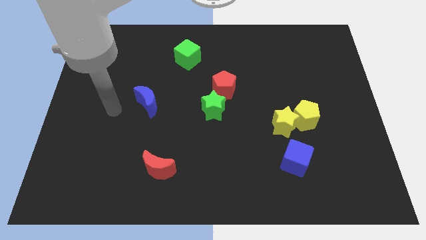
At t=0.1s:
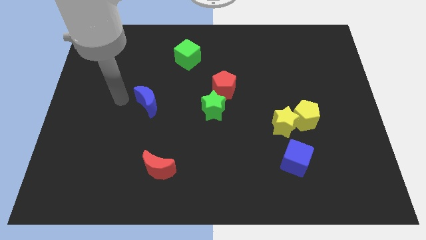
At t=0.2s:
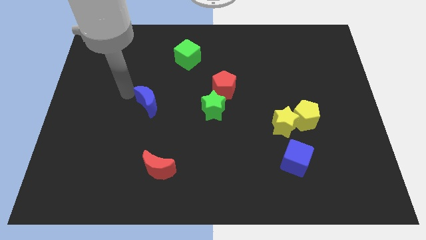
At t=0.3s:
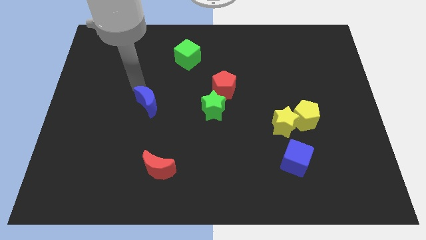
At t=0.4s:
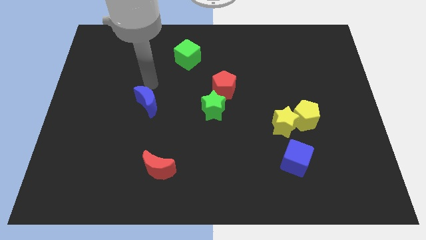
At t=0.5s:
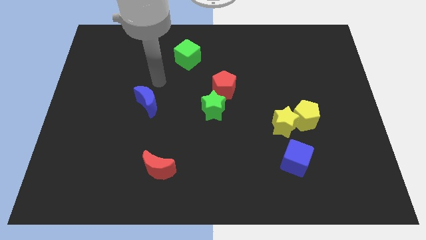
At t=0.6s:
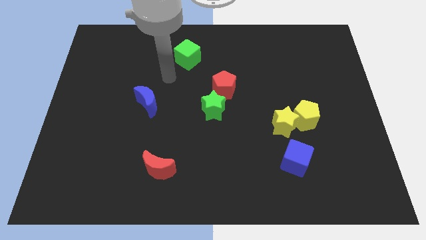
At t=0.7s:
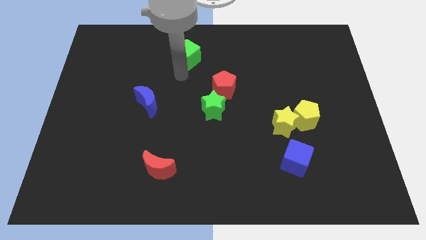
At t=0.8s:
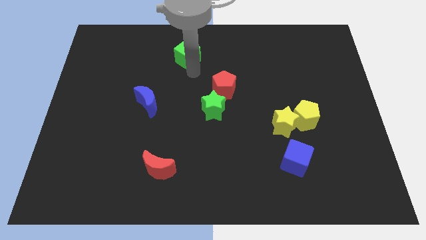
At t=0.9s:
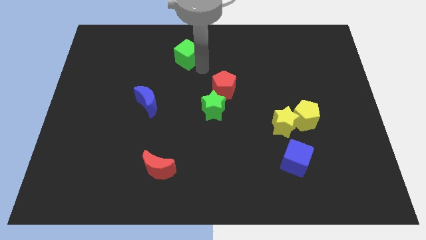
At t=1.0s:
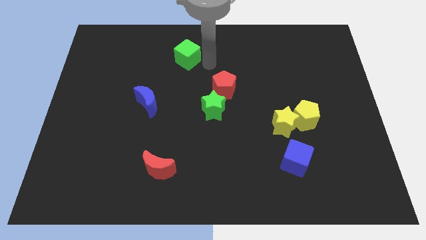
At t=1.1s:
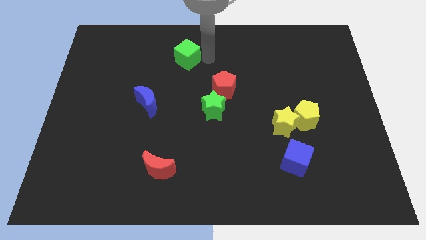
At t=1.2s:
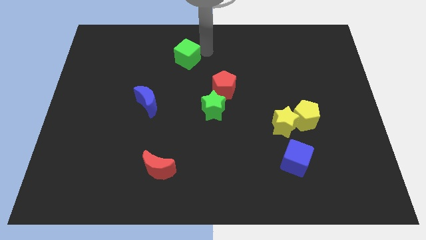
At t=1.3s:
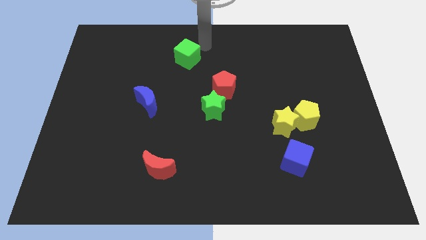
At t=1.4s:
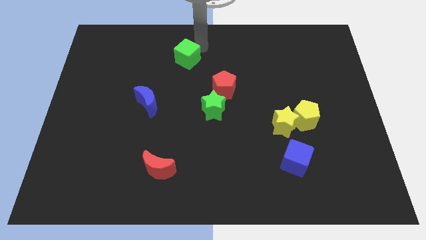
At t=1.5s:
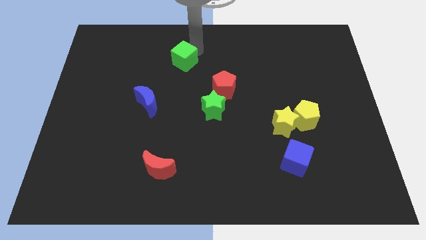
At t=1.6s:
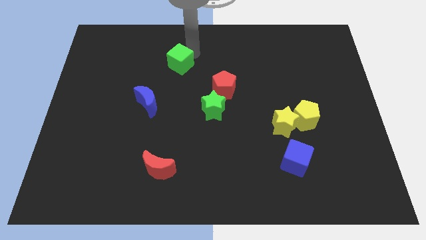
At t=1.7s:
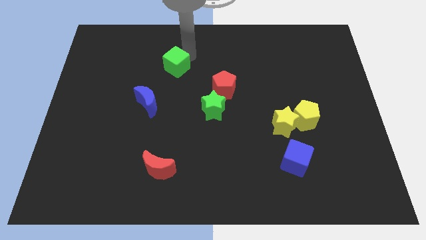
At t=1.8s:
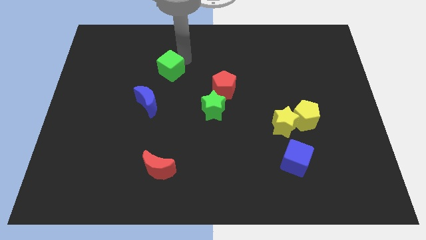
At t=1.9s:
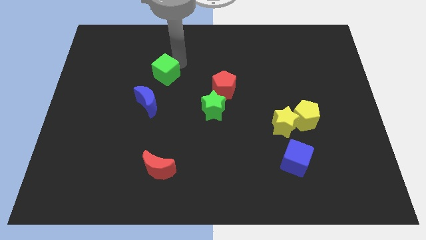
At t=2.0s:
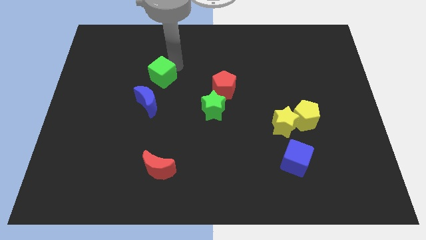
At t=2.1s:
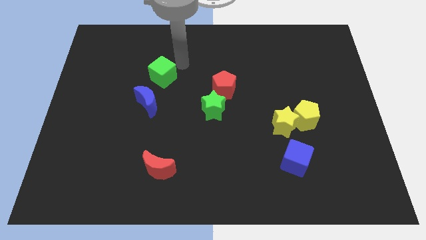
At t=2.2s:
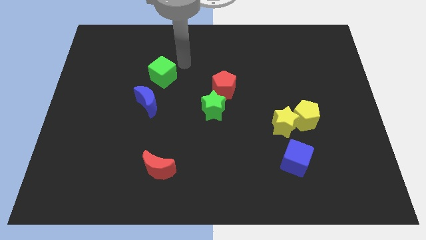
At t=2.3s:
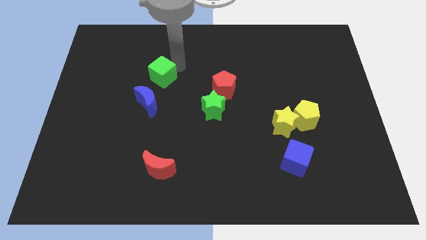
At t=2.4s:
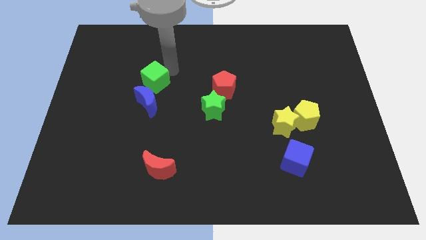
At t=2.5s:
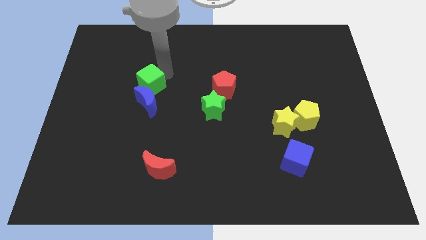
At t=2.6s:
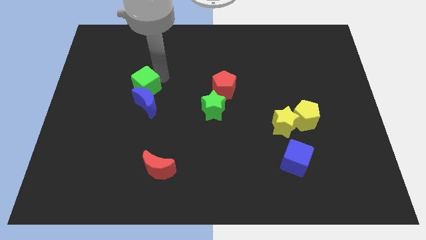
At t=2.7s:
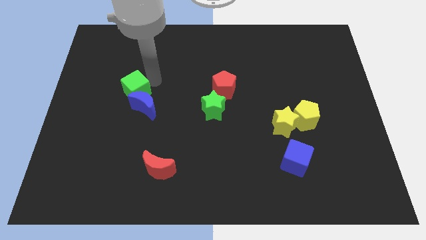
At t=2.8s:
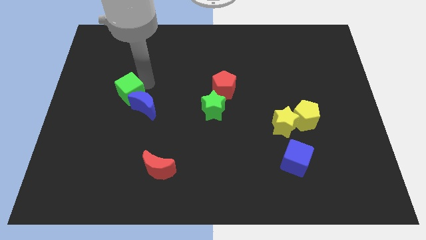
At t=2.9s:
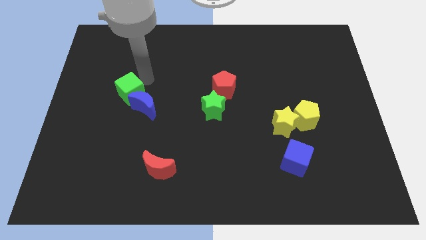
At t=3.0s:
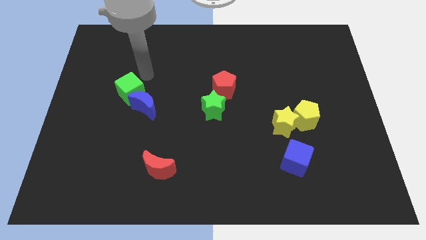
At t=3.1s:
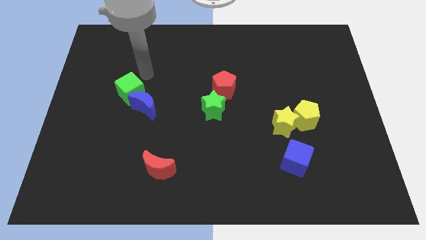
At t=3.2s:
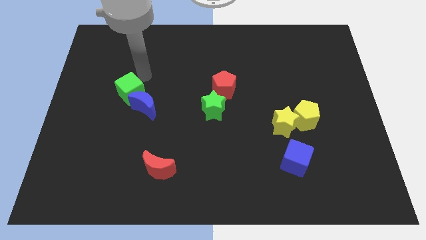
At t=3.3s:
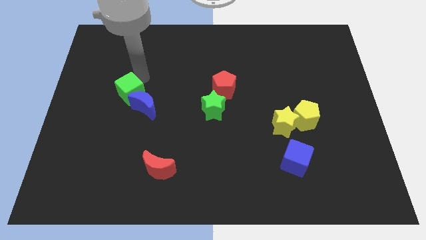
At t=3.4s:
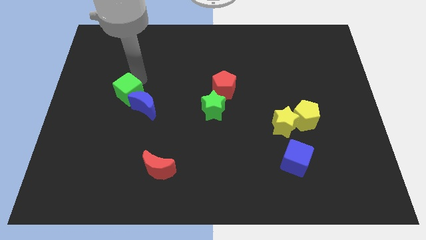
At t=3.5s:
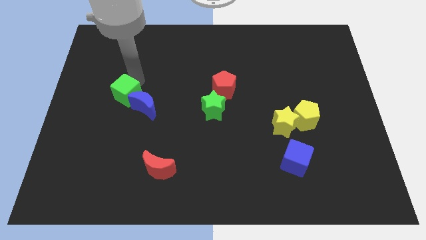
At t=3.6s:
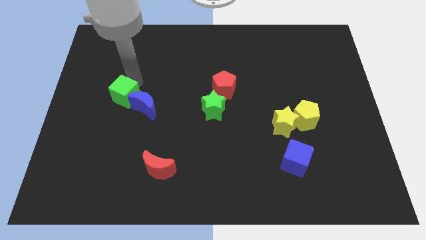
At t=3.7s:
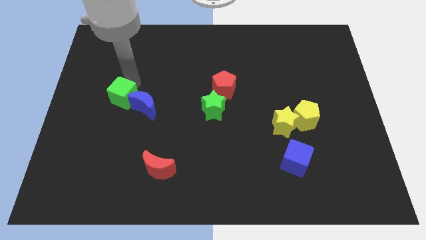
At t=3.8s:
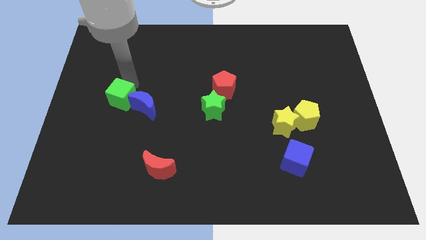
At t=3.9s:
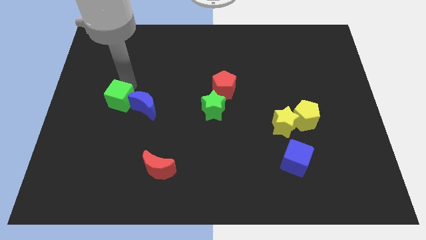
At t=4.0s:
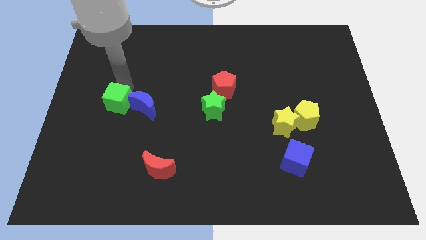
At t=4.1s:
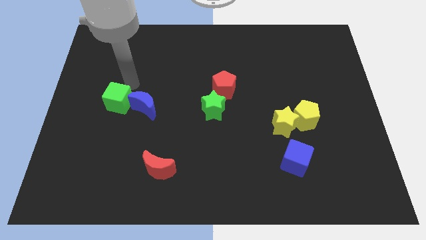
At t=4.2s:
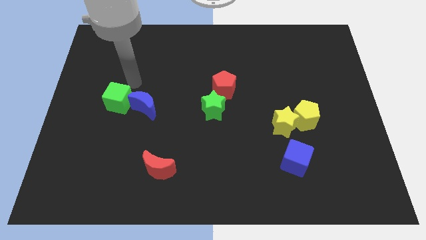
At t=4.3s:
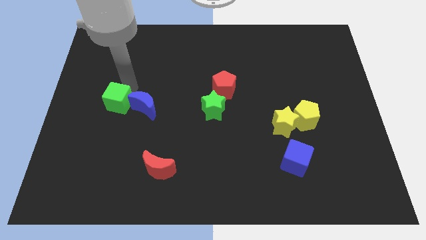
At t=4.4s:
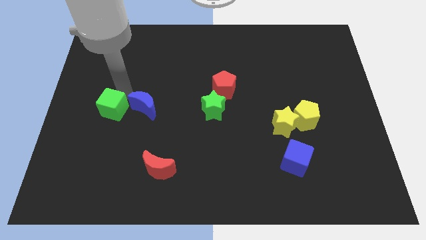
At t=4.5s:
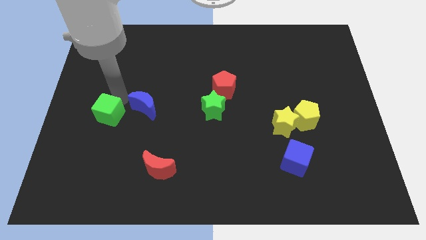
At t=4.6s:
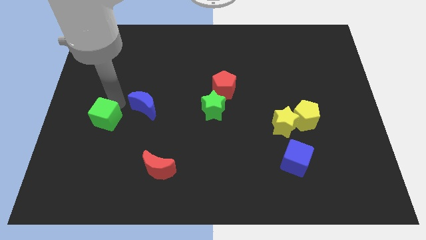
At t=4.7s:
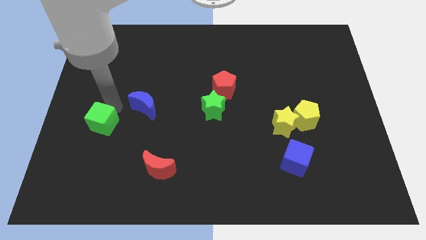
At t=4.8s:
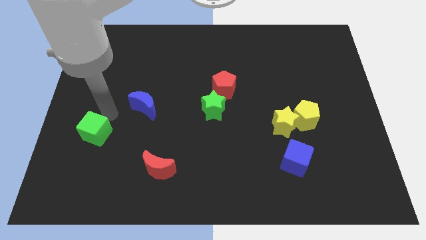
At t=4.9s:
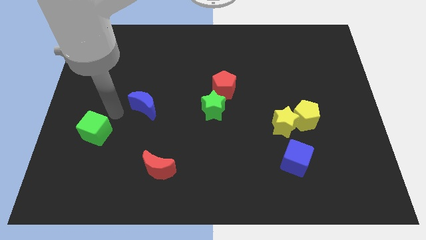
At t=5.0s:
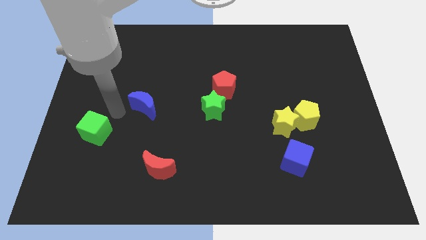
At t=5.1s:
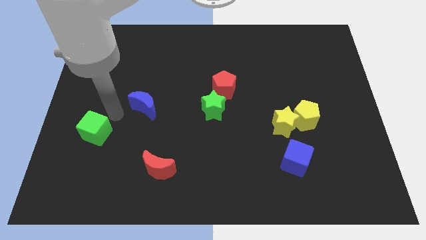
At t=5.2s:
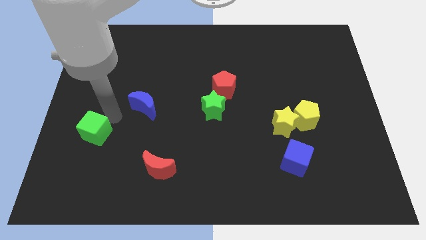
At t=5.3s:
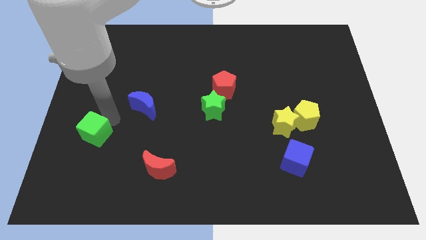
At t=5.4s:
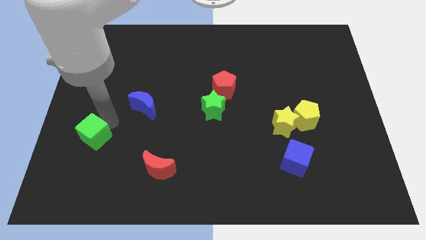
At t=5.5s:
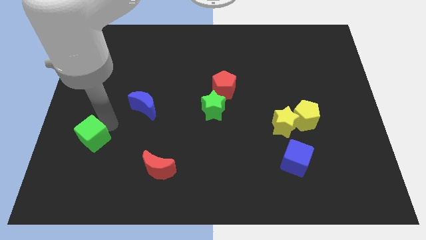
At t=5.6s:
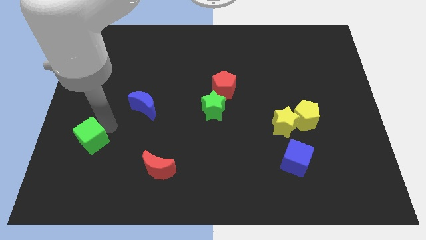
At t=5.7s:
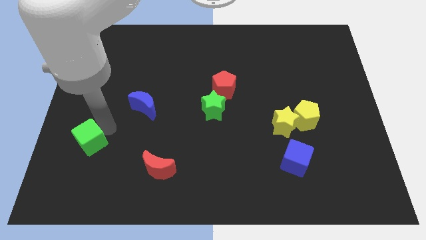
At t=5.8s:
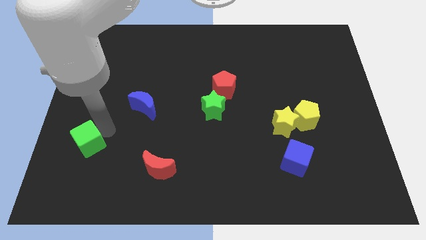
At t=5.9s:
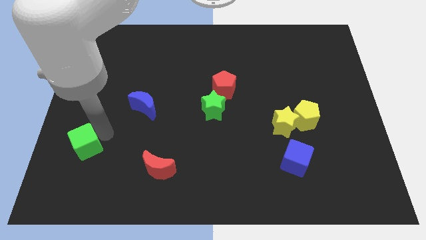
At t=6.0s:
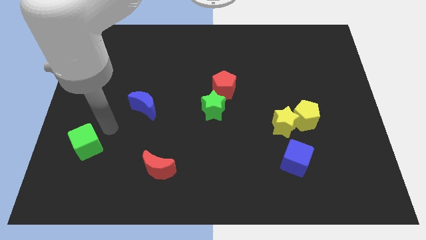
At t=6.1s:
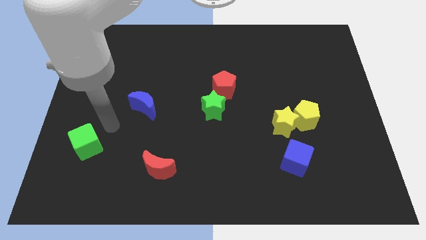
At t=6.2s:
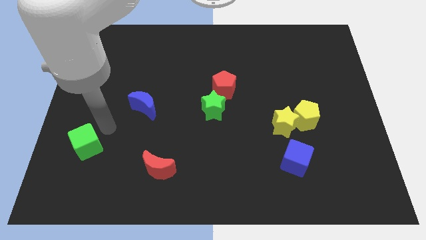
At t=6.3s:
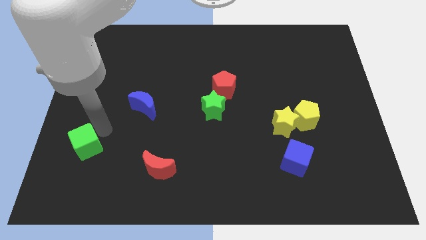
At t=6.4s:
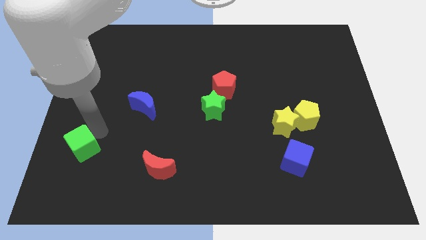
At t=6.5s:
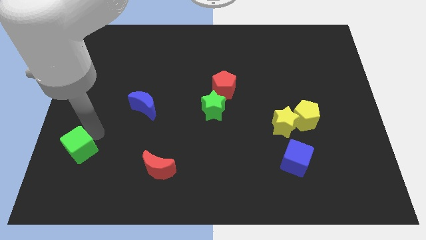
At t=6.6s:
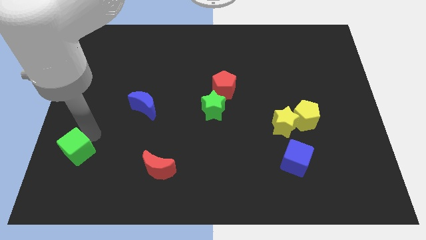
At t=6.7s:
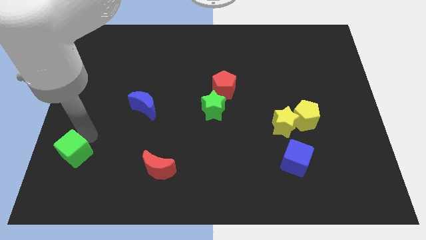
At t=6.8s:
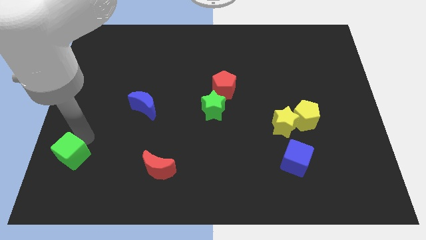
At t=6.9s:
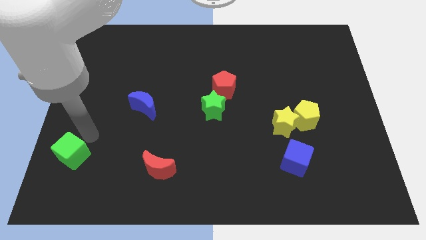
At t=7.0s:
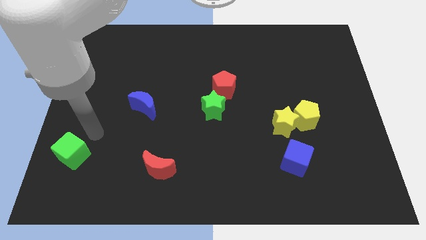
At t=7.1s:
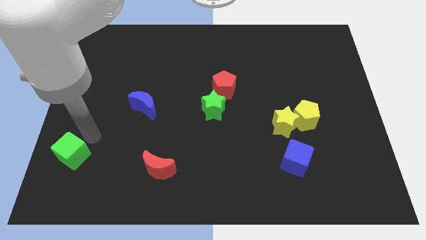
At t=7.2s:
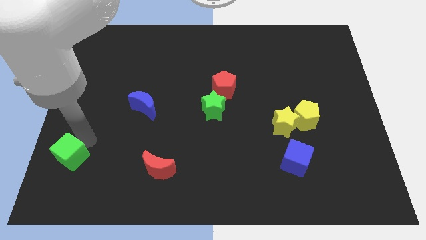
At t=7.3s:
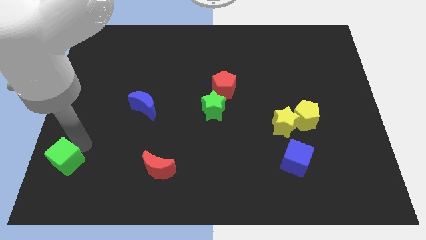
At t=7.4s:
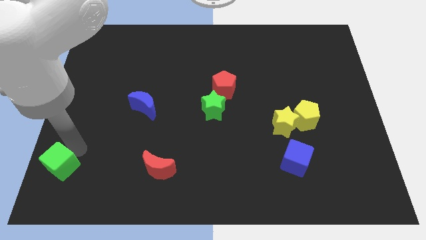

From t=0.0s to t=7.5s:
put the green cube to the lower left corner
